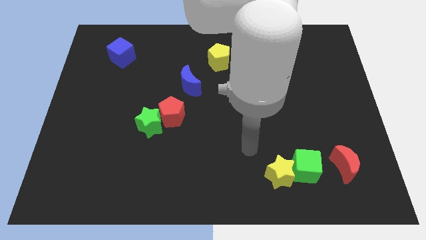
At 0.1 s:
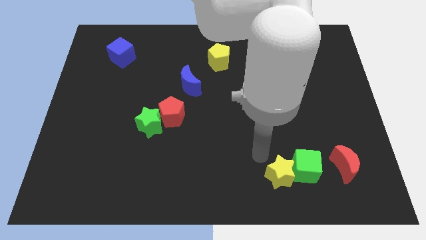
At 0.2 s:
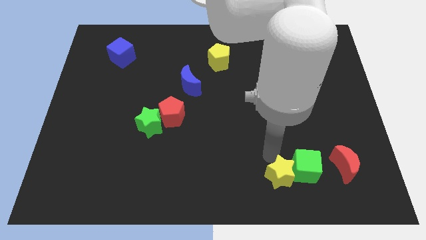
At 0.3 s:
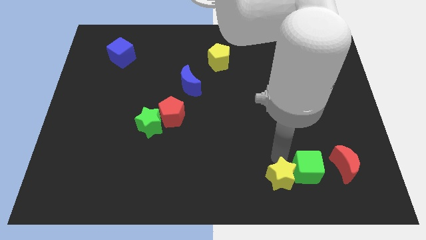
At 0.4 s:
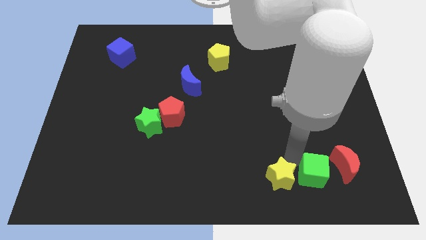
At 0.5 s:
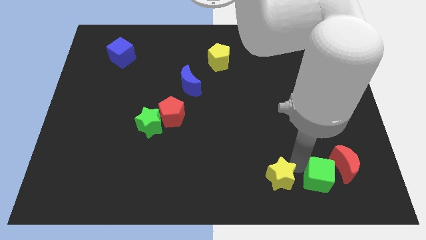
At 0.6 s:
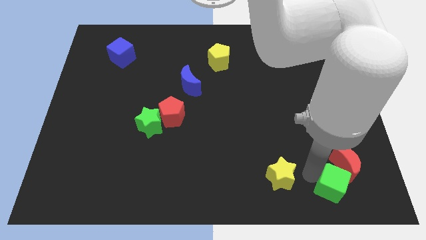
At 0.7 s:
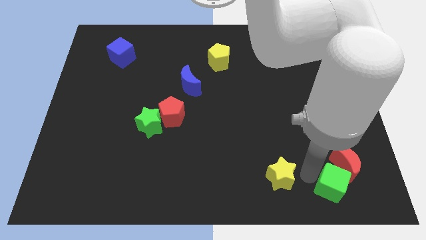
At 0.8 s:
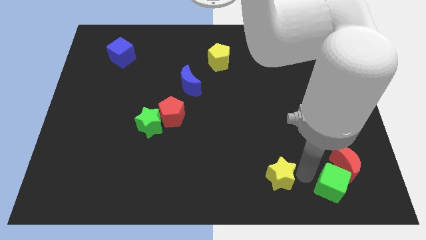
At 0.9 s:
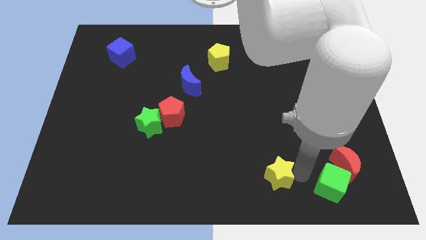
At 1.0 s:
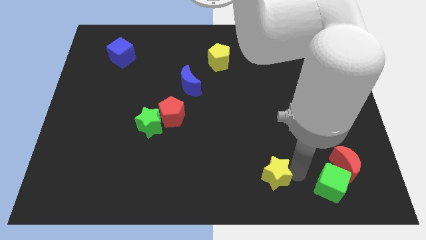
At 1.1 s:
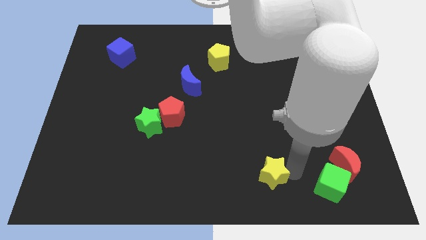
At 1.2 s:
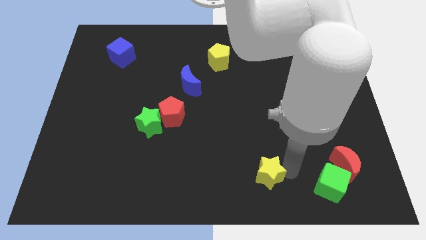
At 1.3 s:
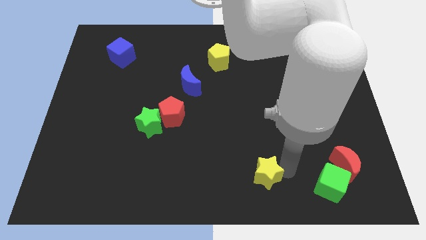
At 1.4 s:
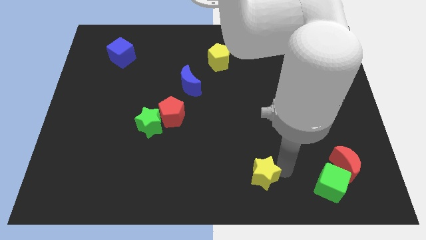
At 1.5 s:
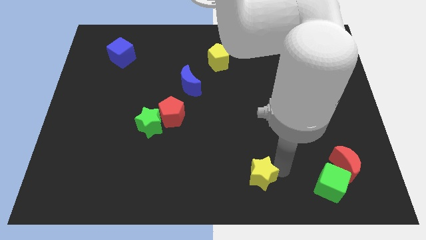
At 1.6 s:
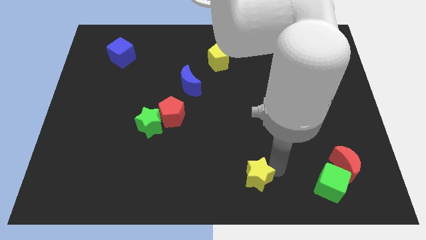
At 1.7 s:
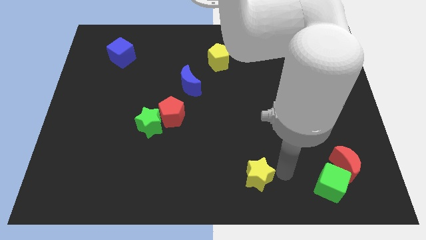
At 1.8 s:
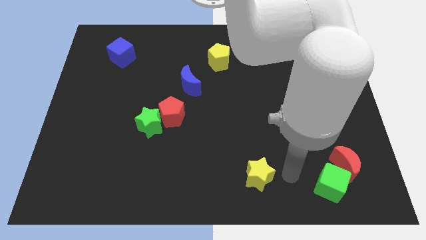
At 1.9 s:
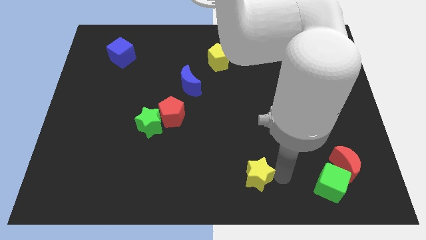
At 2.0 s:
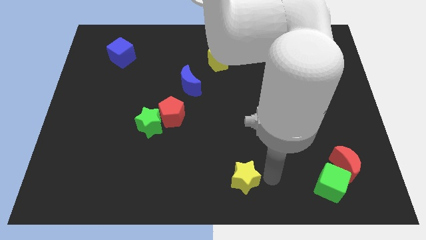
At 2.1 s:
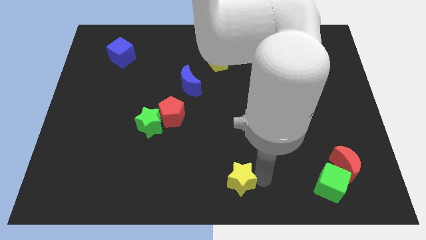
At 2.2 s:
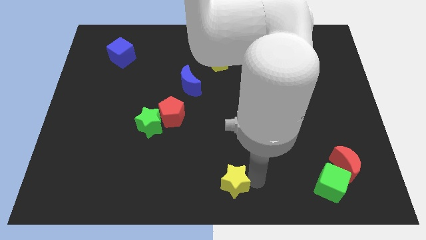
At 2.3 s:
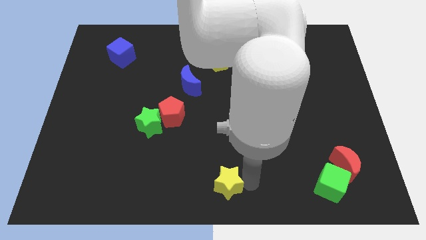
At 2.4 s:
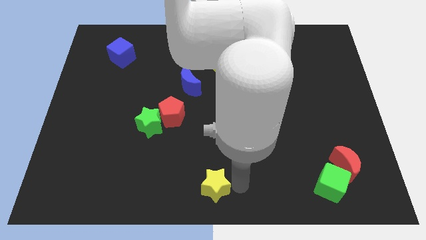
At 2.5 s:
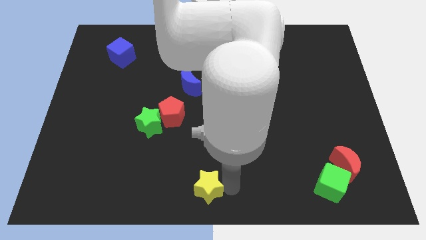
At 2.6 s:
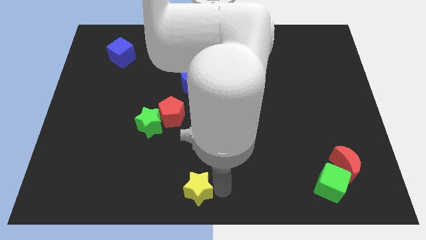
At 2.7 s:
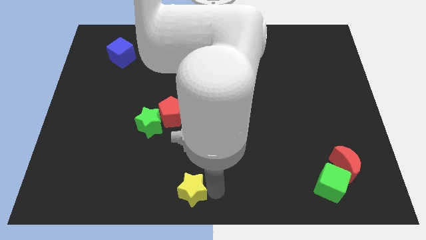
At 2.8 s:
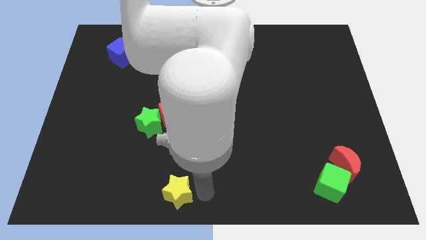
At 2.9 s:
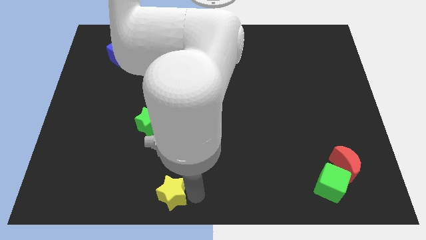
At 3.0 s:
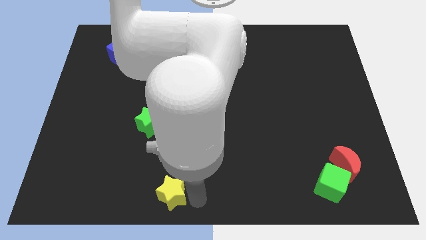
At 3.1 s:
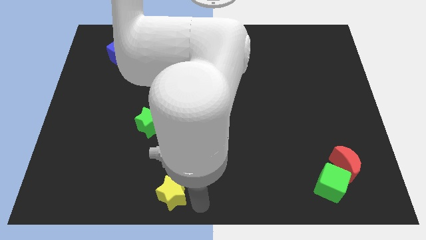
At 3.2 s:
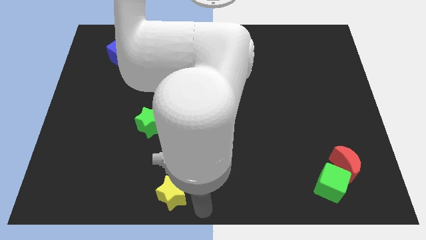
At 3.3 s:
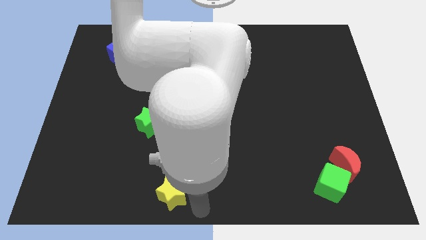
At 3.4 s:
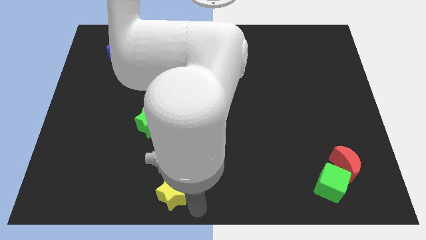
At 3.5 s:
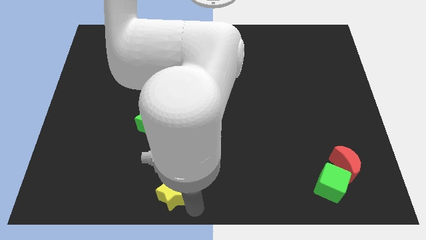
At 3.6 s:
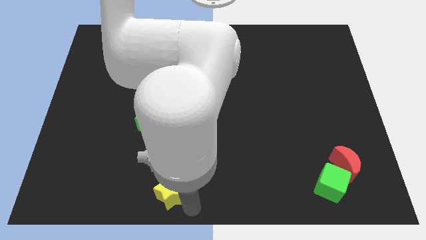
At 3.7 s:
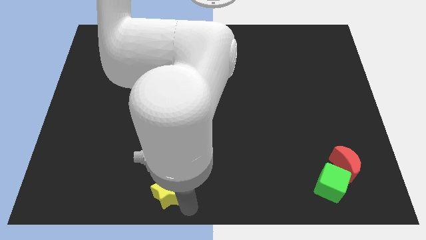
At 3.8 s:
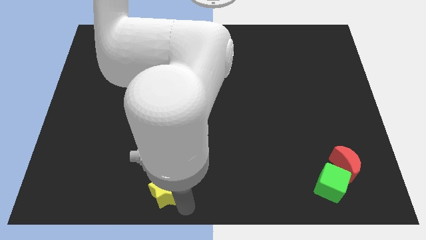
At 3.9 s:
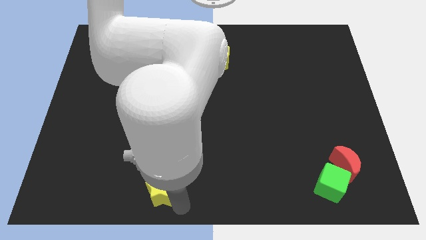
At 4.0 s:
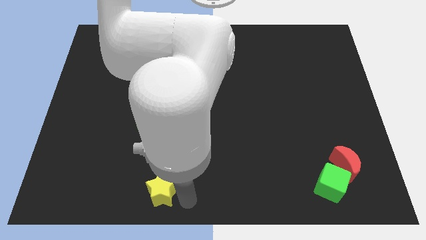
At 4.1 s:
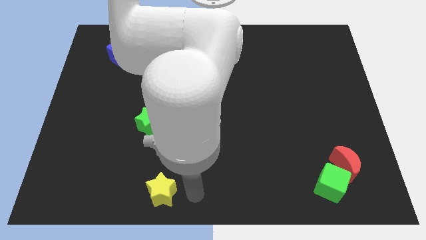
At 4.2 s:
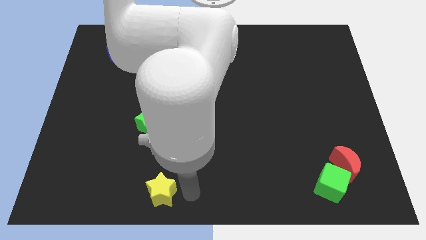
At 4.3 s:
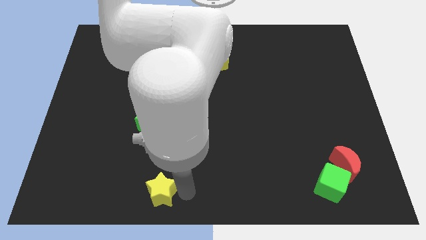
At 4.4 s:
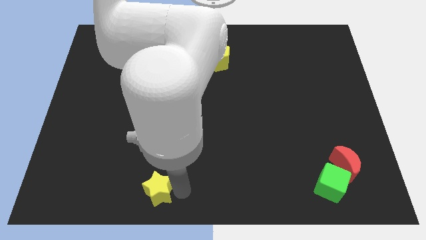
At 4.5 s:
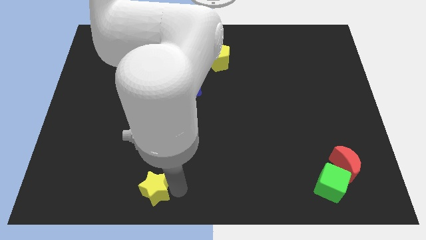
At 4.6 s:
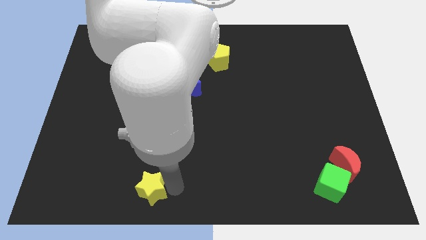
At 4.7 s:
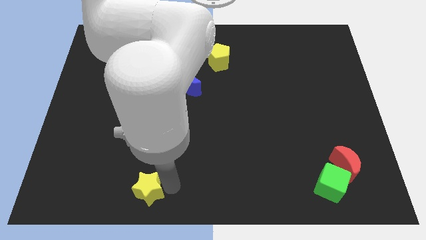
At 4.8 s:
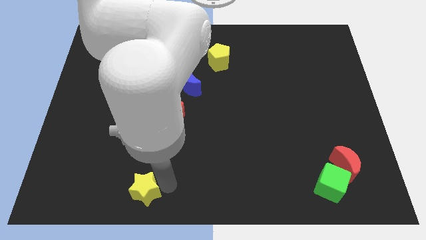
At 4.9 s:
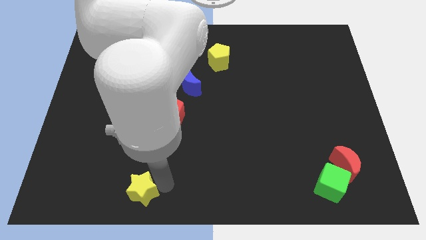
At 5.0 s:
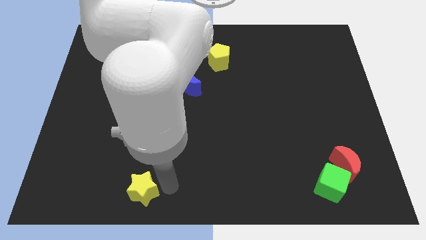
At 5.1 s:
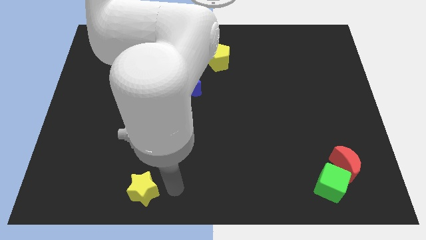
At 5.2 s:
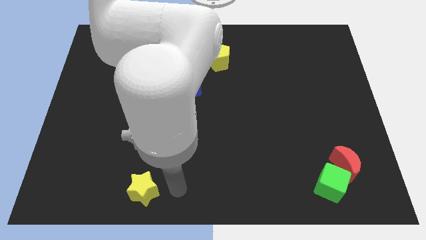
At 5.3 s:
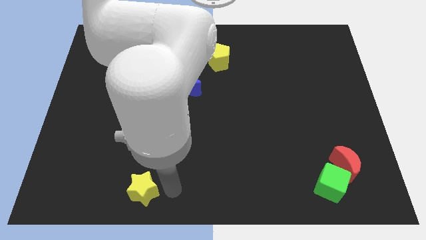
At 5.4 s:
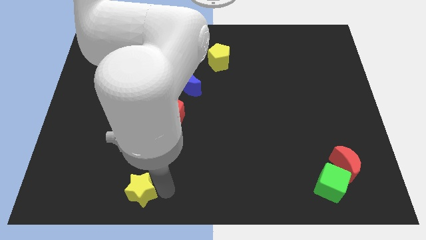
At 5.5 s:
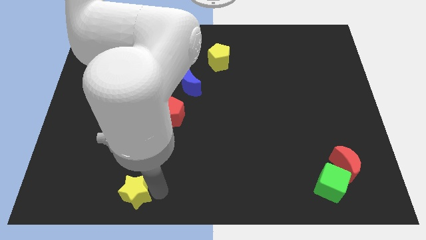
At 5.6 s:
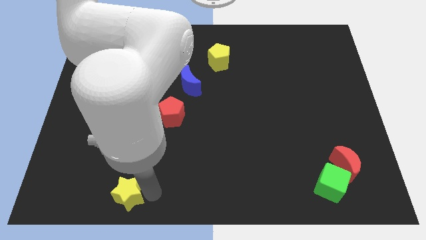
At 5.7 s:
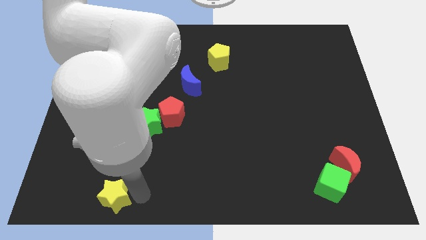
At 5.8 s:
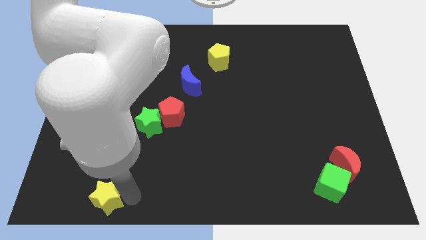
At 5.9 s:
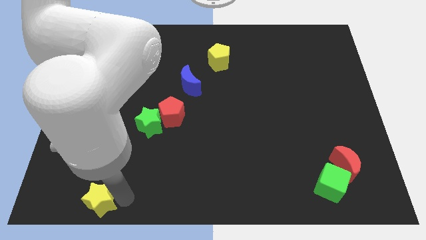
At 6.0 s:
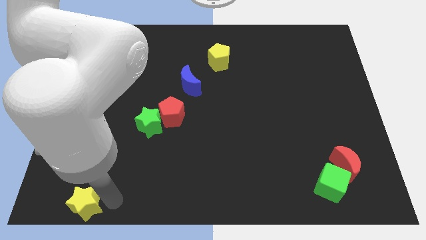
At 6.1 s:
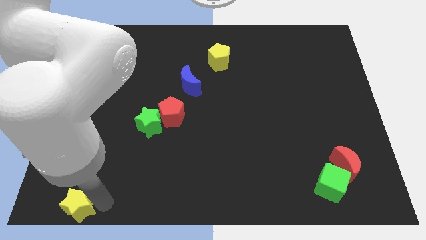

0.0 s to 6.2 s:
push the yellow star to the bottom left
